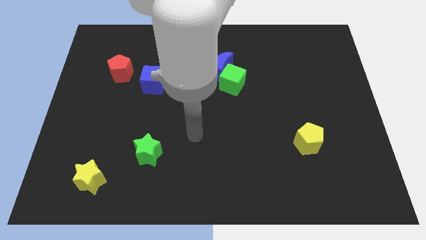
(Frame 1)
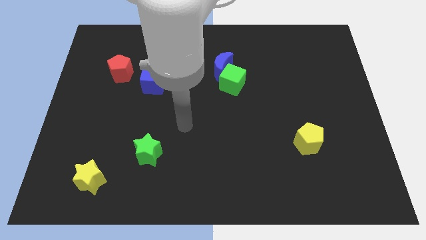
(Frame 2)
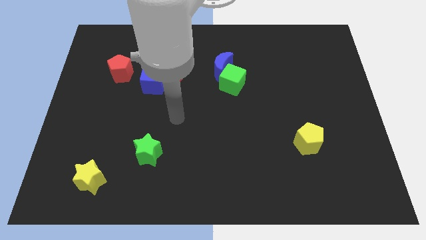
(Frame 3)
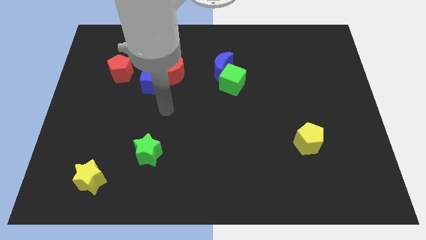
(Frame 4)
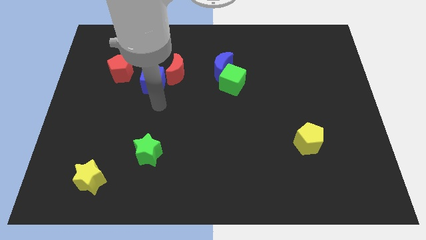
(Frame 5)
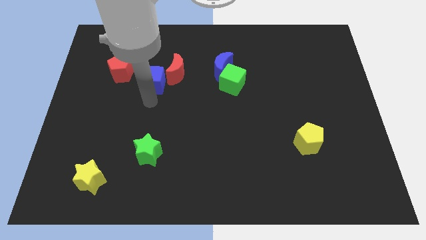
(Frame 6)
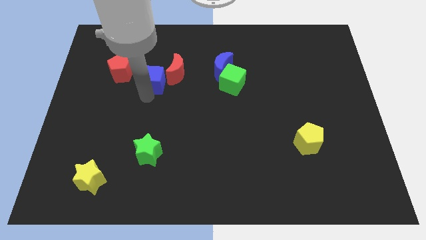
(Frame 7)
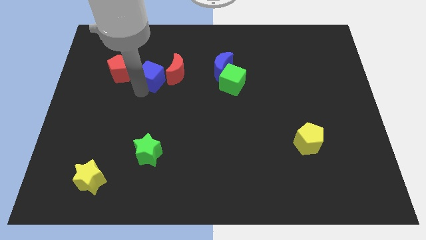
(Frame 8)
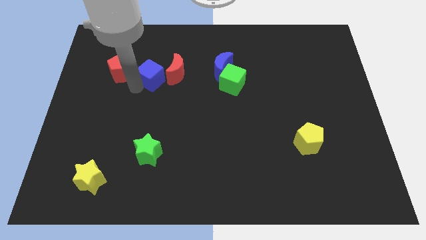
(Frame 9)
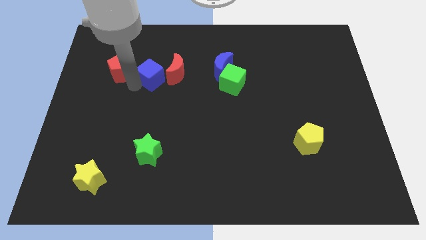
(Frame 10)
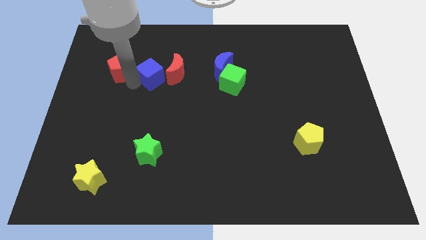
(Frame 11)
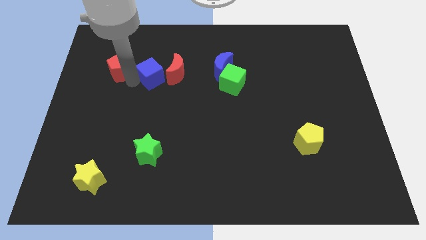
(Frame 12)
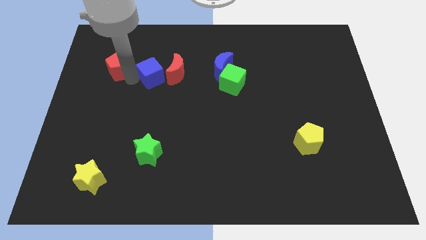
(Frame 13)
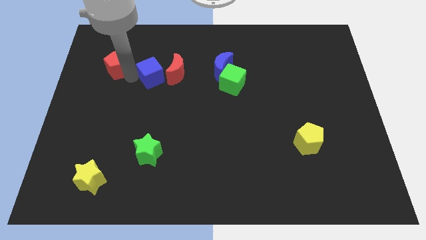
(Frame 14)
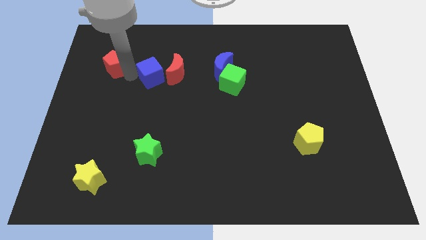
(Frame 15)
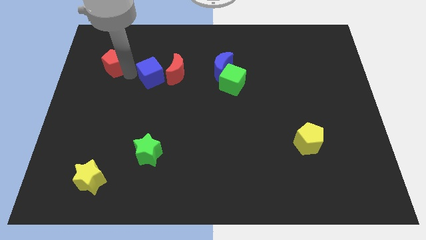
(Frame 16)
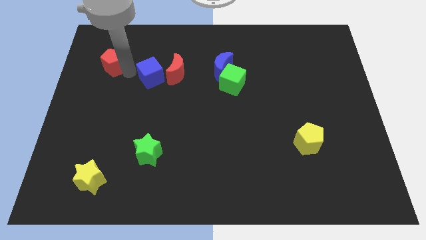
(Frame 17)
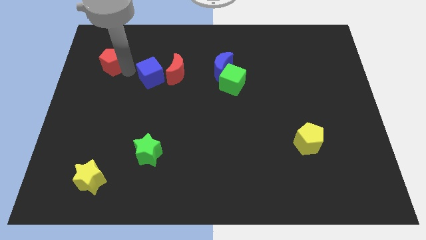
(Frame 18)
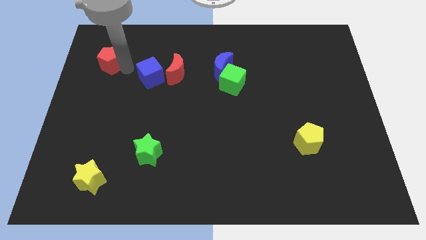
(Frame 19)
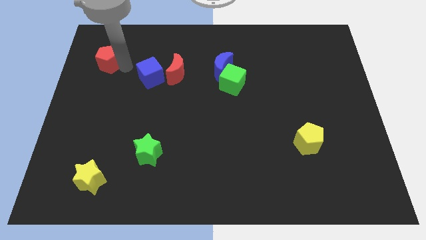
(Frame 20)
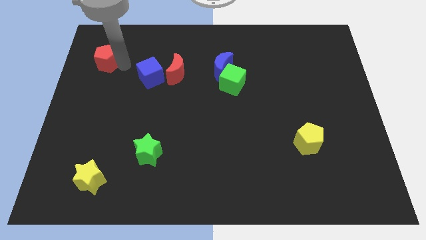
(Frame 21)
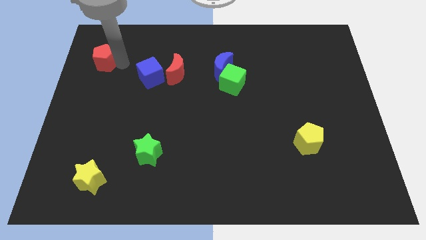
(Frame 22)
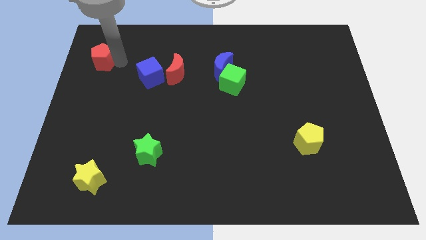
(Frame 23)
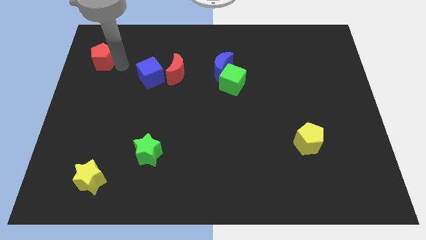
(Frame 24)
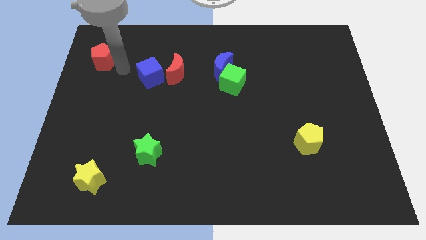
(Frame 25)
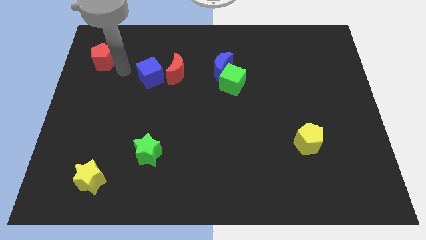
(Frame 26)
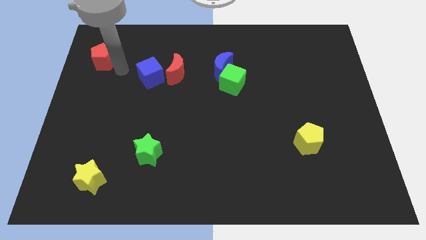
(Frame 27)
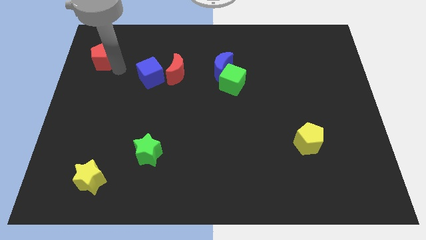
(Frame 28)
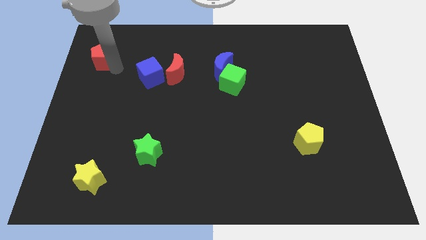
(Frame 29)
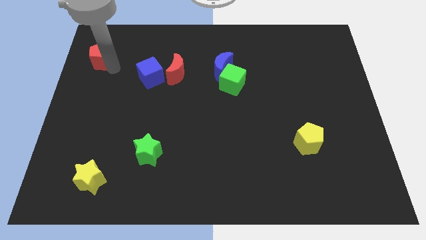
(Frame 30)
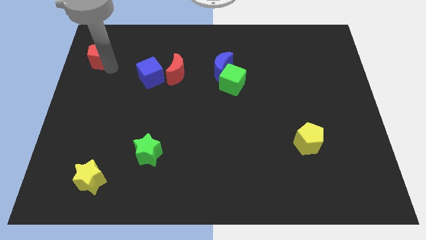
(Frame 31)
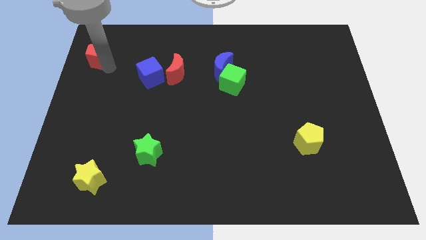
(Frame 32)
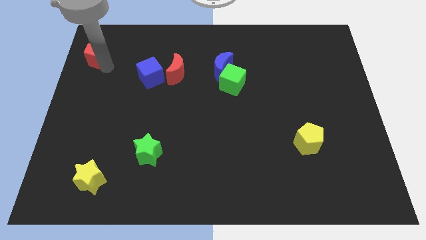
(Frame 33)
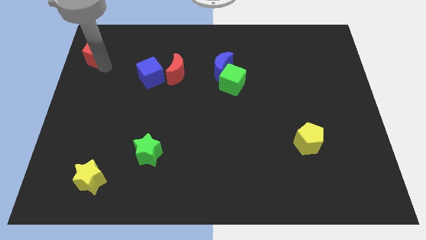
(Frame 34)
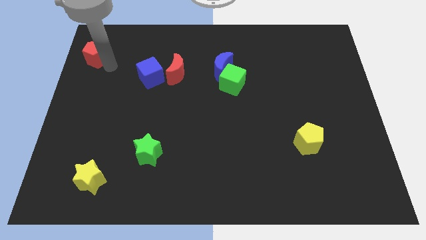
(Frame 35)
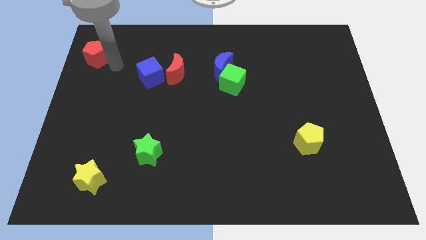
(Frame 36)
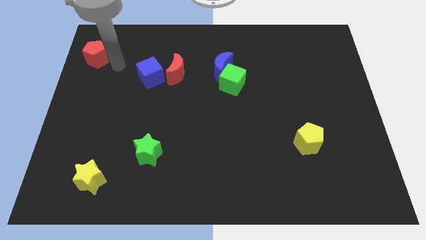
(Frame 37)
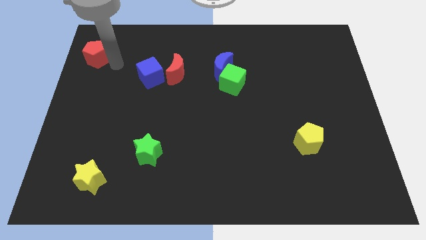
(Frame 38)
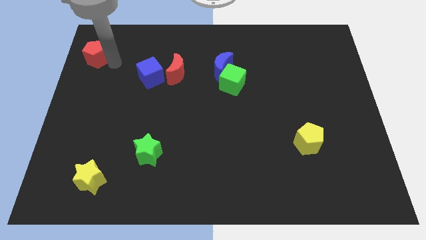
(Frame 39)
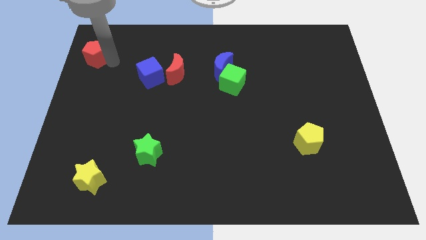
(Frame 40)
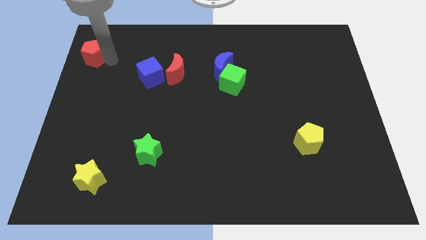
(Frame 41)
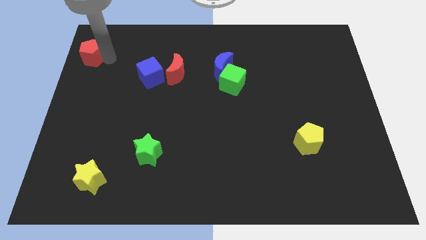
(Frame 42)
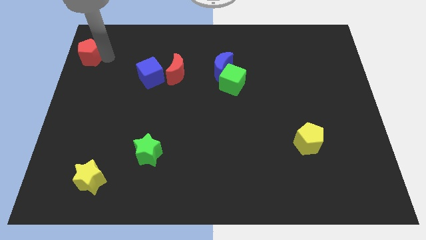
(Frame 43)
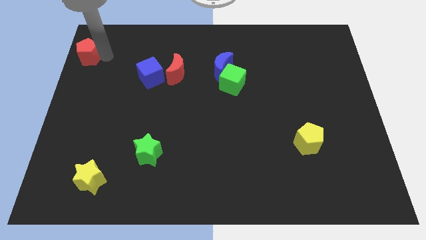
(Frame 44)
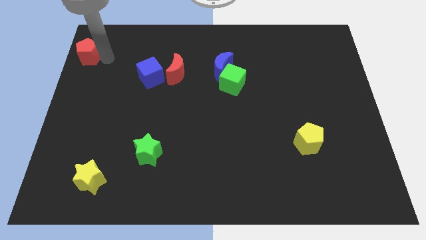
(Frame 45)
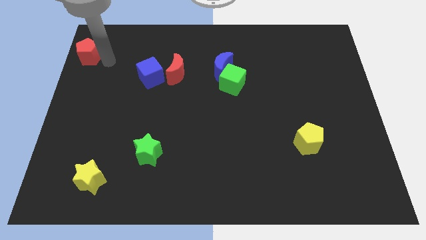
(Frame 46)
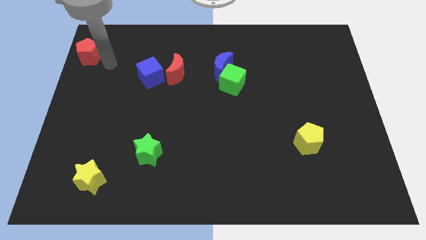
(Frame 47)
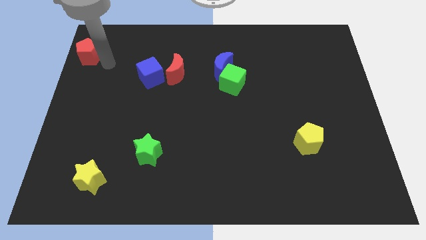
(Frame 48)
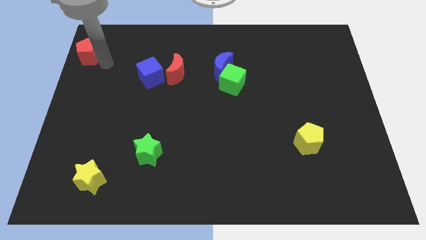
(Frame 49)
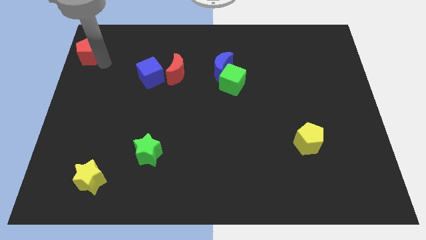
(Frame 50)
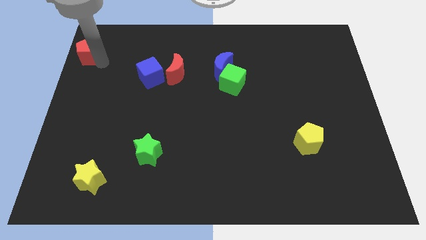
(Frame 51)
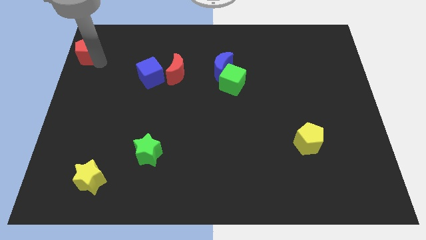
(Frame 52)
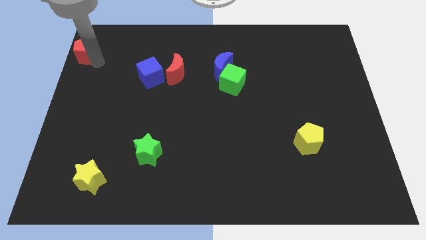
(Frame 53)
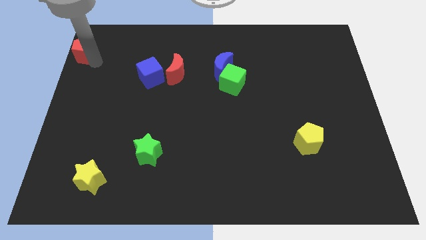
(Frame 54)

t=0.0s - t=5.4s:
move the red pentagon to the top left of the board

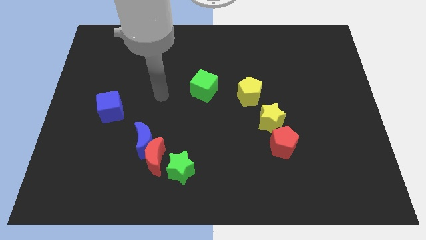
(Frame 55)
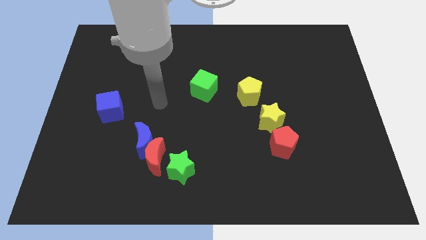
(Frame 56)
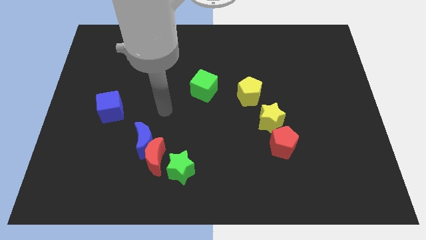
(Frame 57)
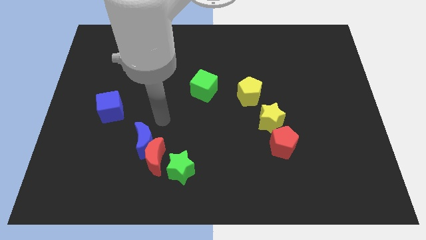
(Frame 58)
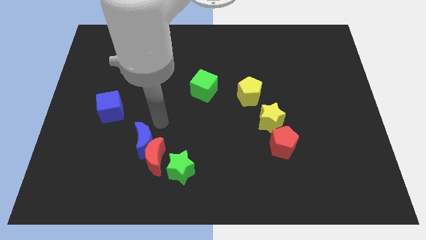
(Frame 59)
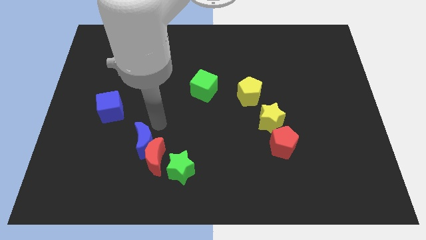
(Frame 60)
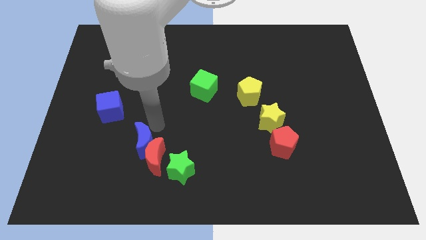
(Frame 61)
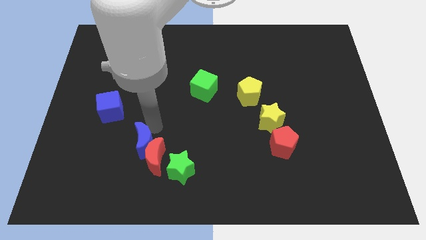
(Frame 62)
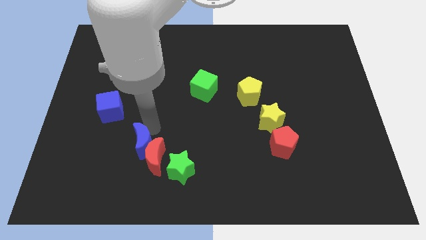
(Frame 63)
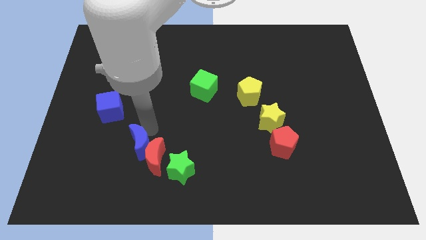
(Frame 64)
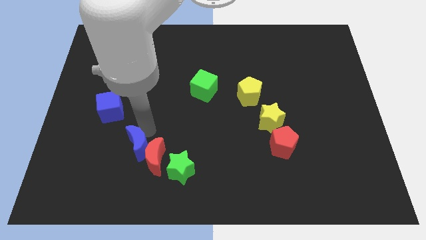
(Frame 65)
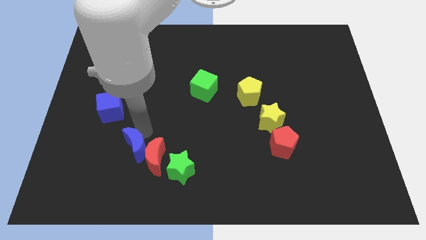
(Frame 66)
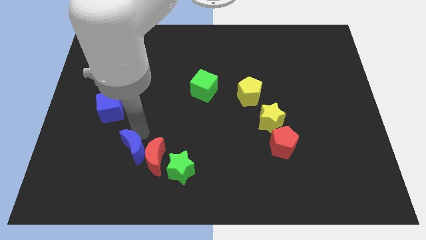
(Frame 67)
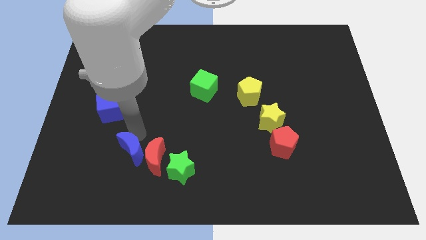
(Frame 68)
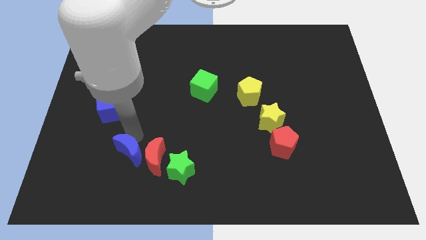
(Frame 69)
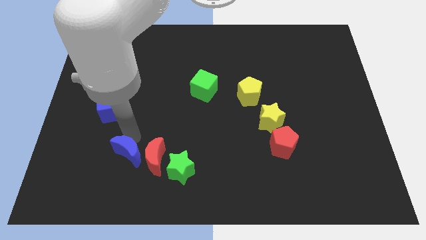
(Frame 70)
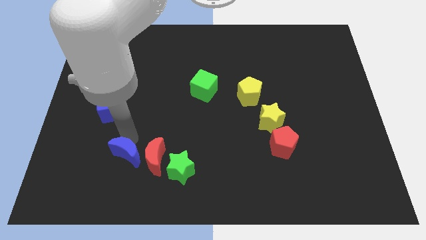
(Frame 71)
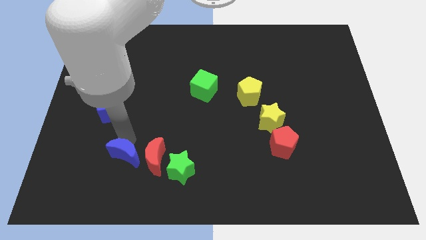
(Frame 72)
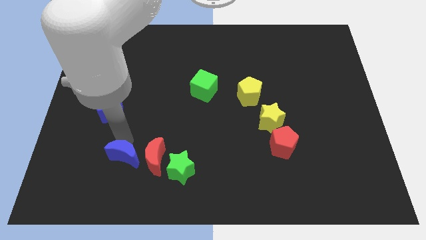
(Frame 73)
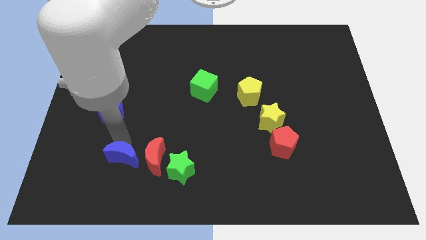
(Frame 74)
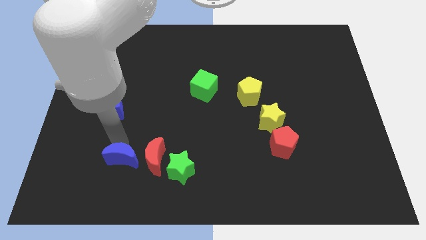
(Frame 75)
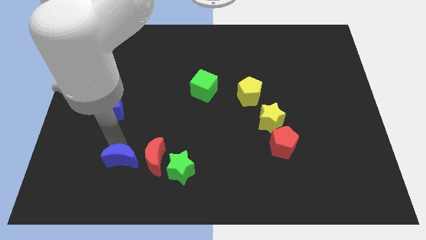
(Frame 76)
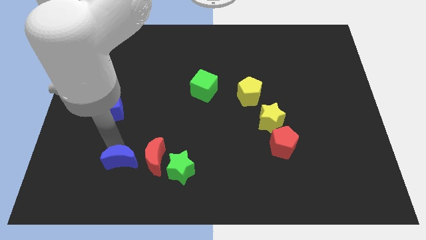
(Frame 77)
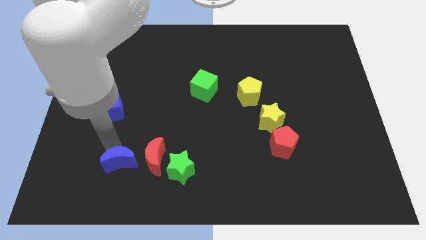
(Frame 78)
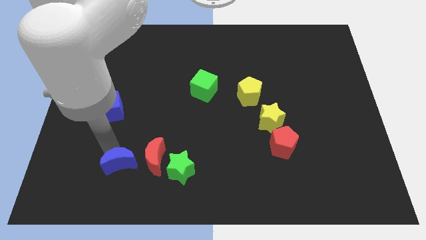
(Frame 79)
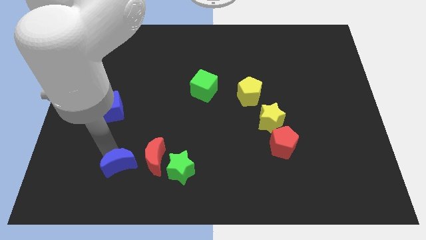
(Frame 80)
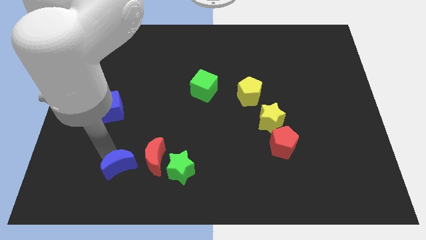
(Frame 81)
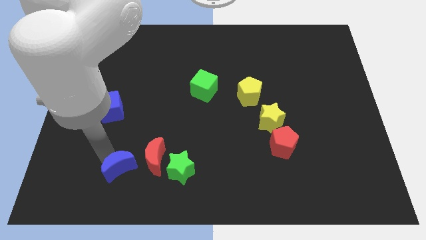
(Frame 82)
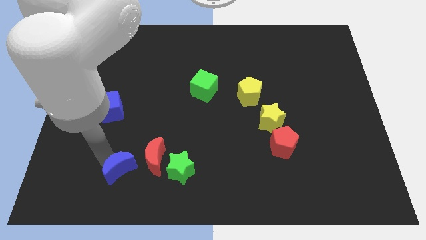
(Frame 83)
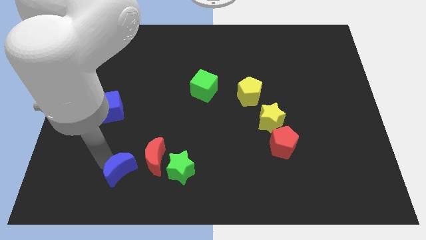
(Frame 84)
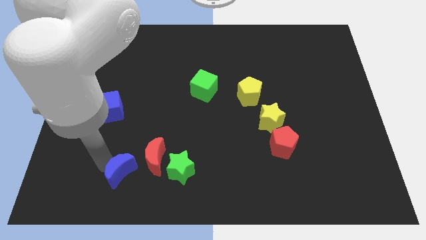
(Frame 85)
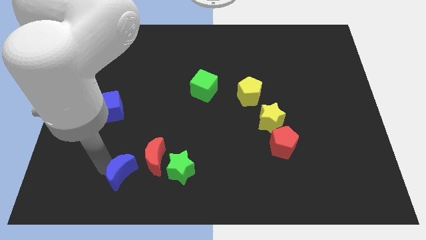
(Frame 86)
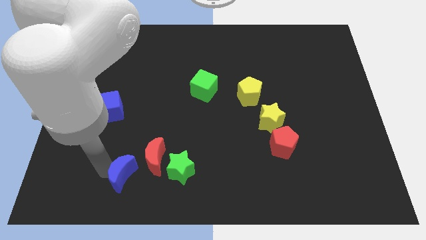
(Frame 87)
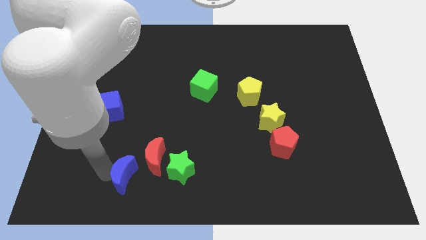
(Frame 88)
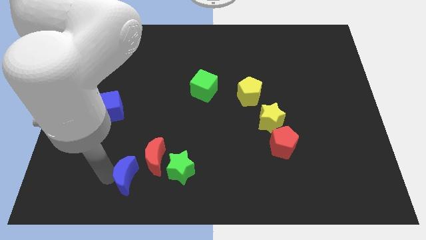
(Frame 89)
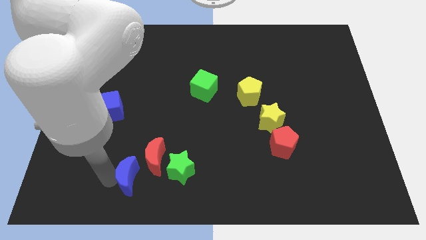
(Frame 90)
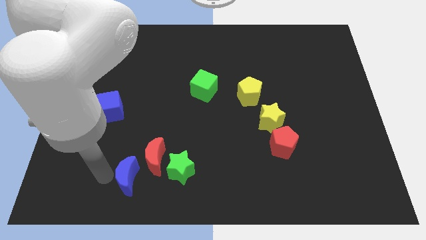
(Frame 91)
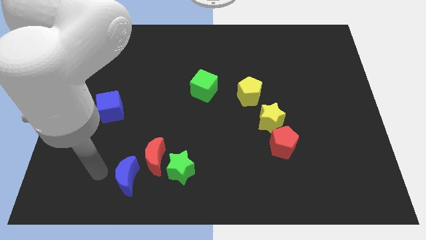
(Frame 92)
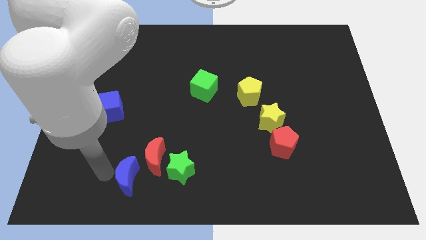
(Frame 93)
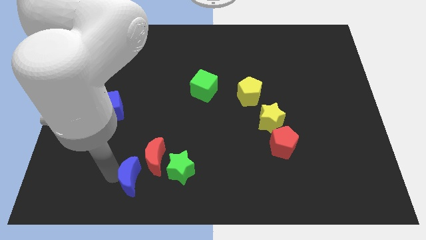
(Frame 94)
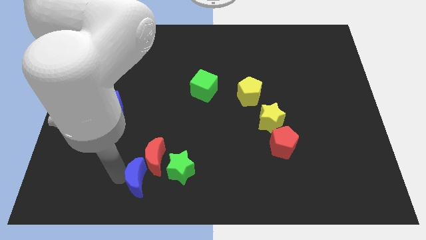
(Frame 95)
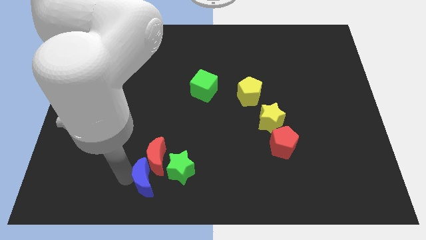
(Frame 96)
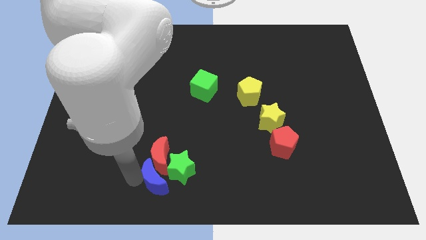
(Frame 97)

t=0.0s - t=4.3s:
move the blue moon to the bottom side
